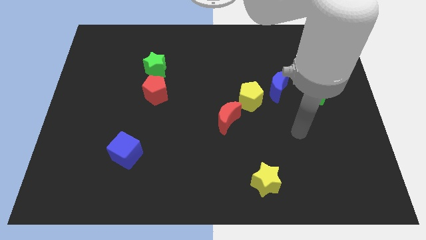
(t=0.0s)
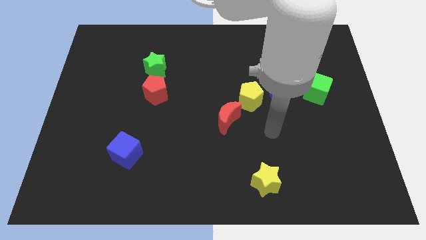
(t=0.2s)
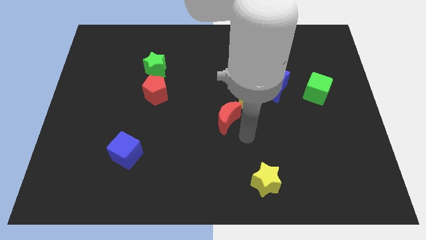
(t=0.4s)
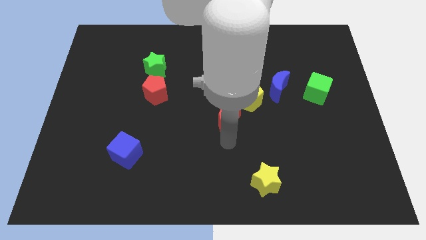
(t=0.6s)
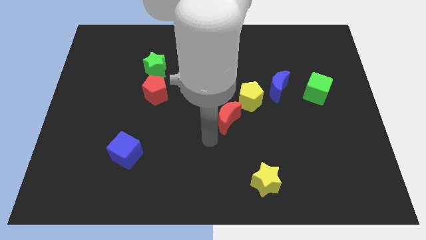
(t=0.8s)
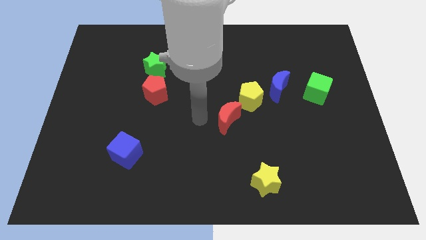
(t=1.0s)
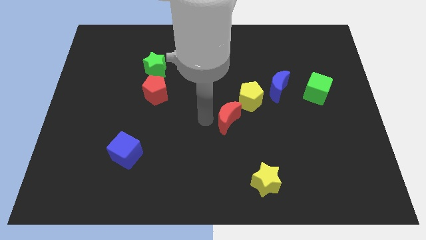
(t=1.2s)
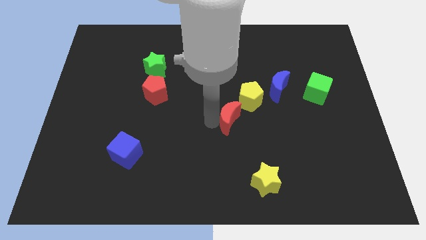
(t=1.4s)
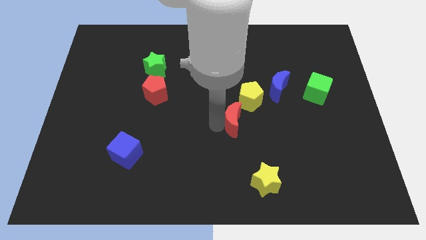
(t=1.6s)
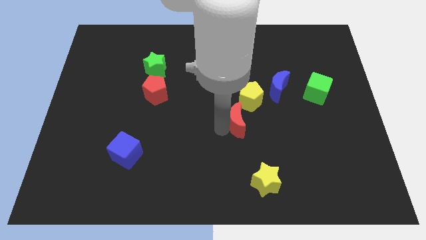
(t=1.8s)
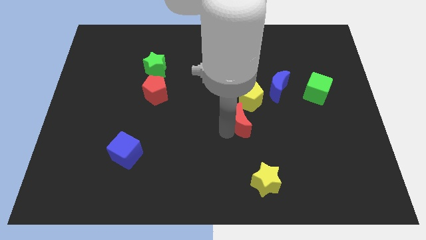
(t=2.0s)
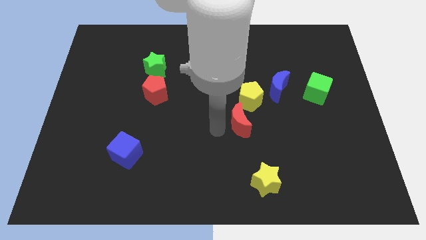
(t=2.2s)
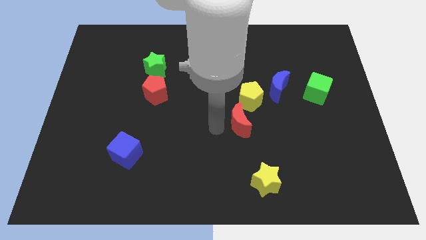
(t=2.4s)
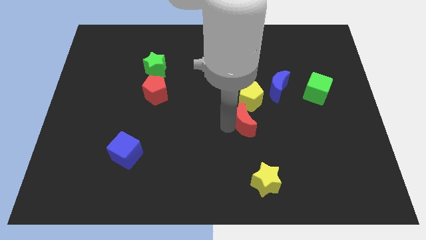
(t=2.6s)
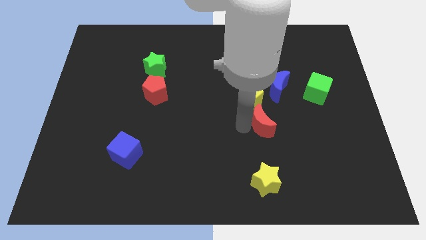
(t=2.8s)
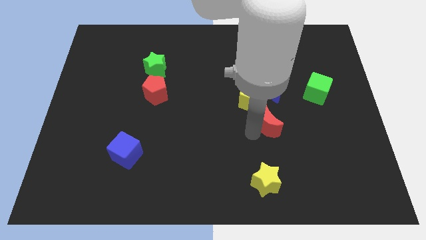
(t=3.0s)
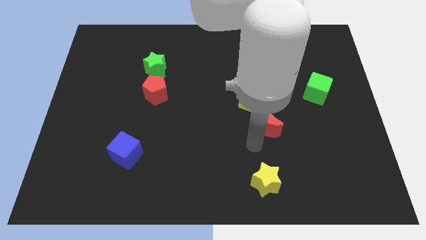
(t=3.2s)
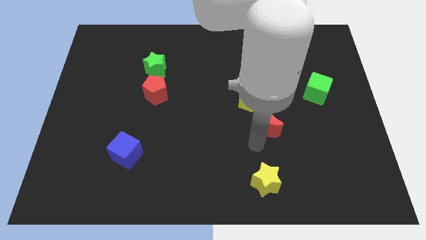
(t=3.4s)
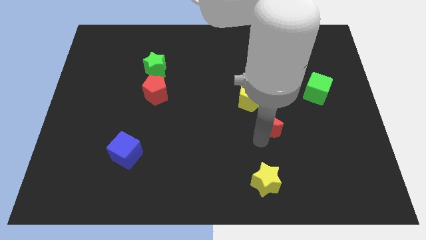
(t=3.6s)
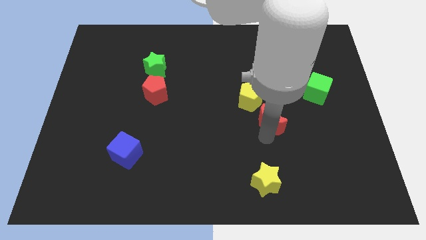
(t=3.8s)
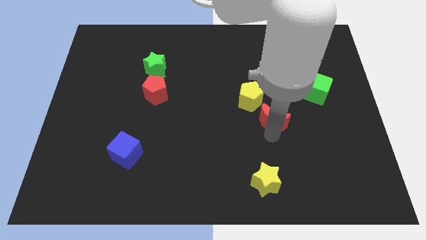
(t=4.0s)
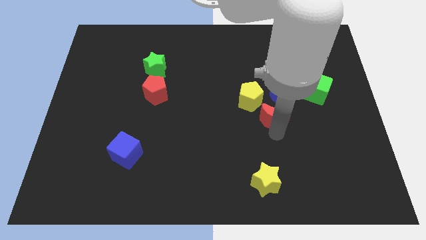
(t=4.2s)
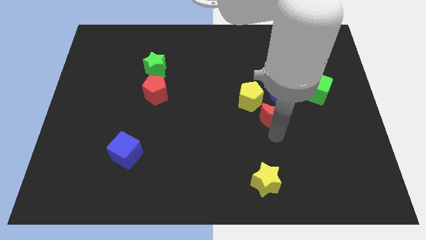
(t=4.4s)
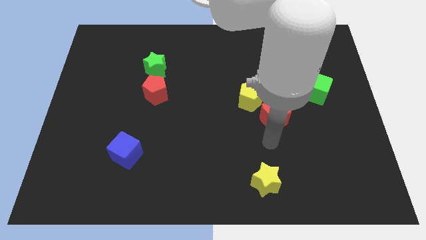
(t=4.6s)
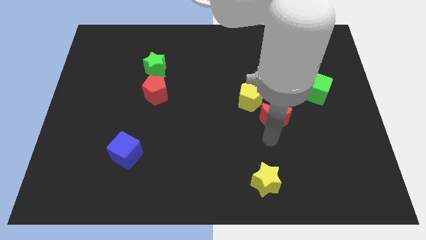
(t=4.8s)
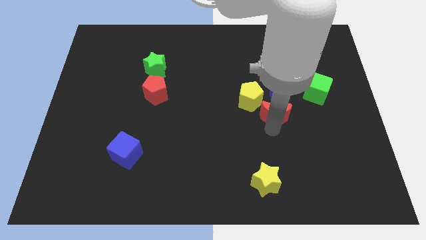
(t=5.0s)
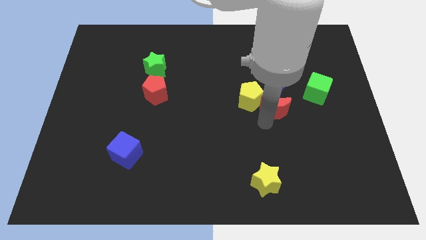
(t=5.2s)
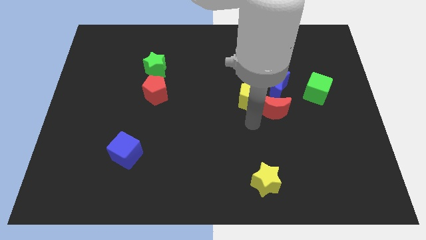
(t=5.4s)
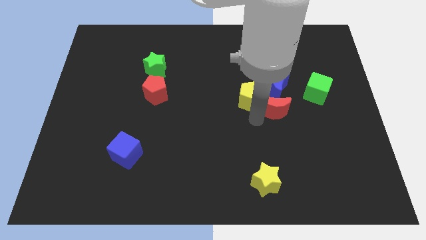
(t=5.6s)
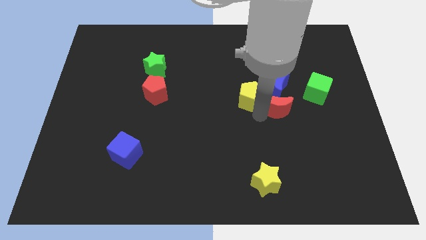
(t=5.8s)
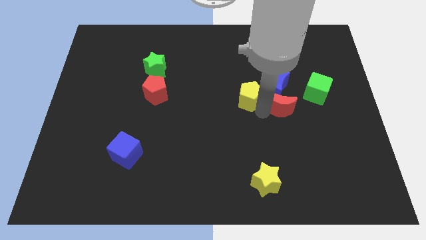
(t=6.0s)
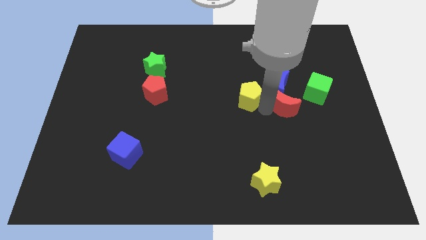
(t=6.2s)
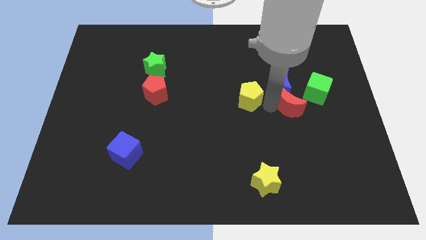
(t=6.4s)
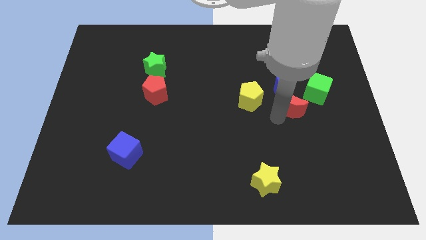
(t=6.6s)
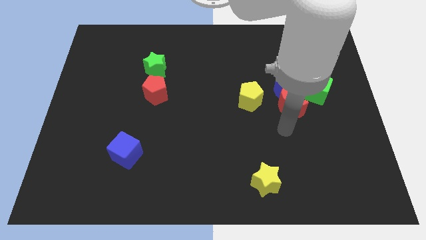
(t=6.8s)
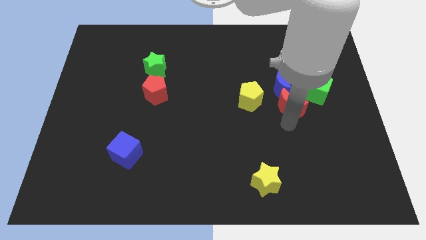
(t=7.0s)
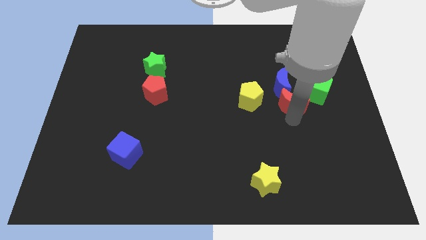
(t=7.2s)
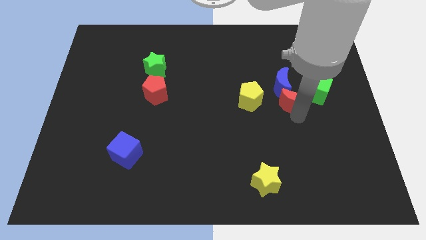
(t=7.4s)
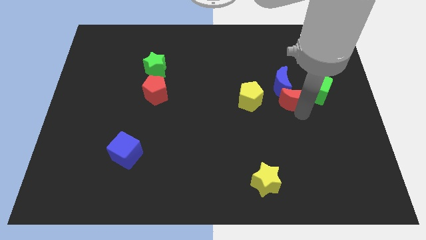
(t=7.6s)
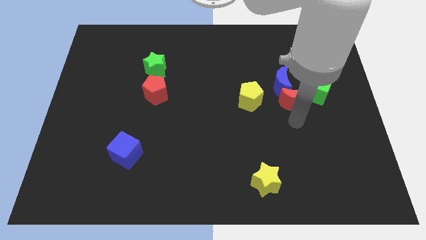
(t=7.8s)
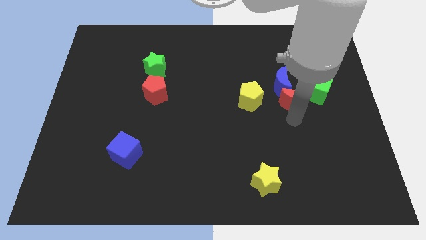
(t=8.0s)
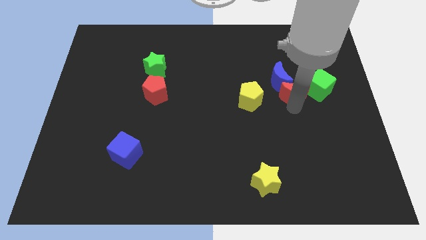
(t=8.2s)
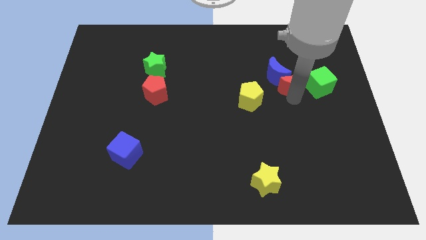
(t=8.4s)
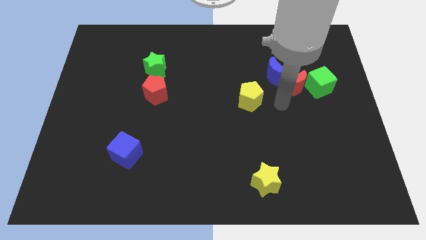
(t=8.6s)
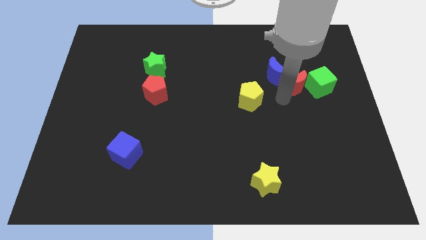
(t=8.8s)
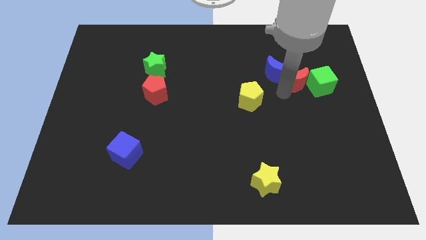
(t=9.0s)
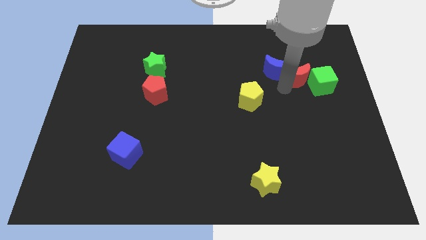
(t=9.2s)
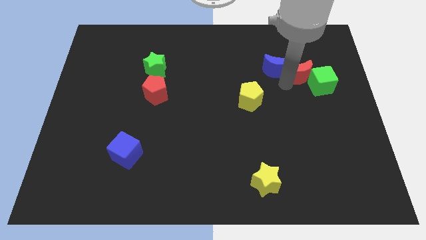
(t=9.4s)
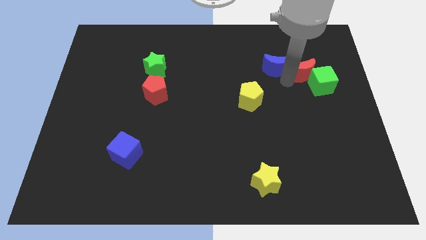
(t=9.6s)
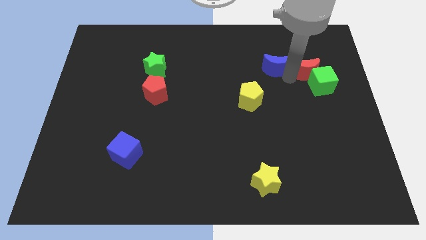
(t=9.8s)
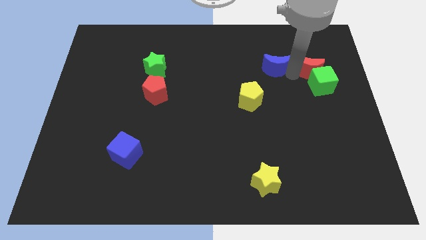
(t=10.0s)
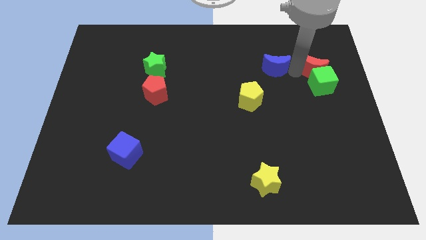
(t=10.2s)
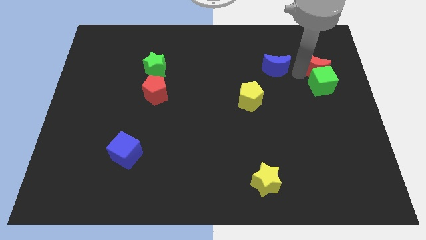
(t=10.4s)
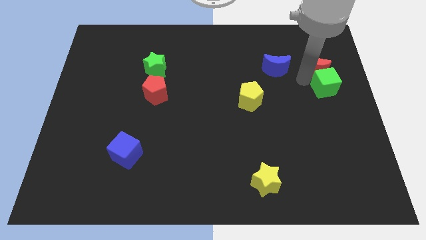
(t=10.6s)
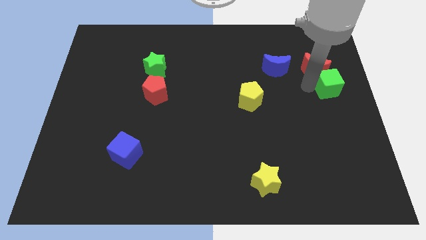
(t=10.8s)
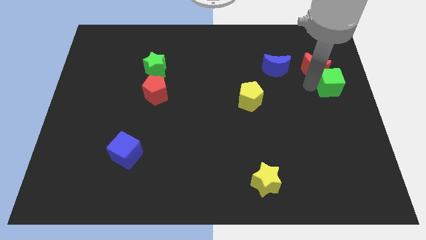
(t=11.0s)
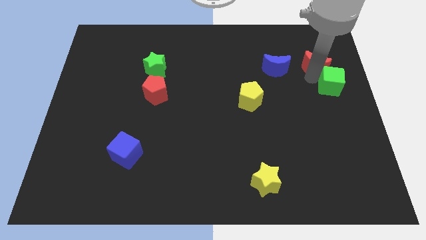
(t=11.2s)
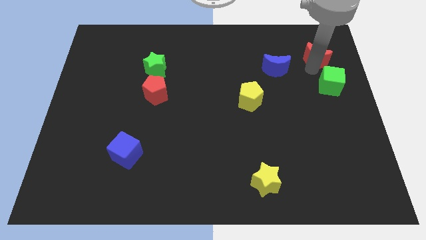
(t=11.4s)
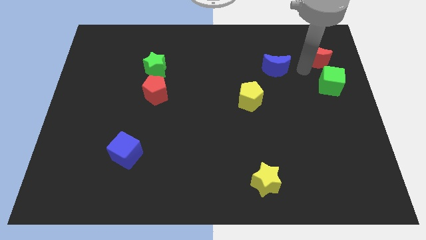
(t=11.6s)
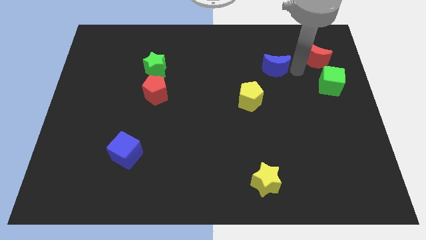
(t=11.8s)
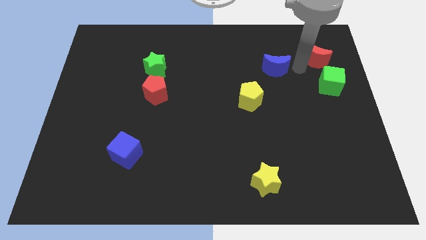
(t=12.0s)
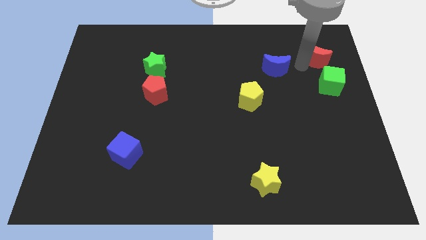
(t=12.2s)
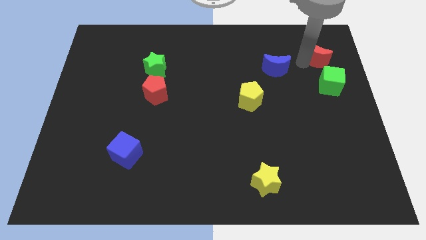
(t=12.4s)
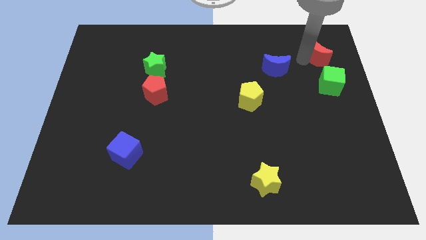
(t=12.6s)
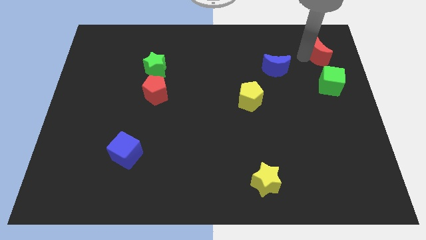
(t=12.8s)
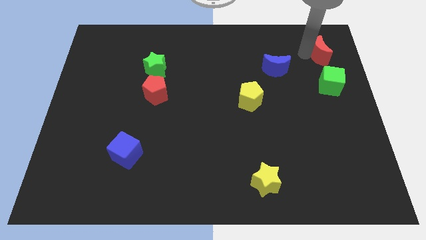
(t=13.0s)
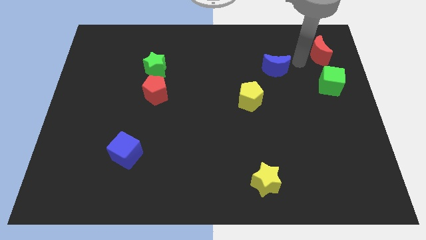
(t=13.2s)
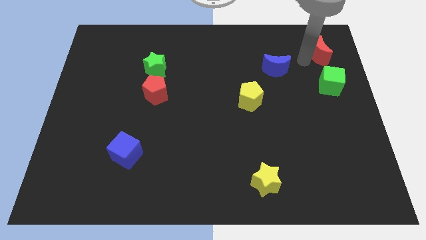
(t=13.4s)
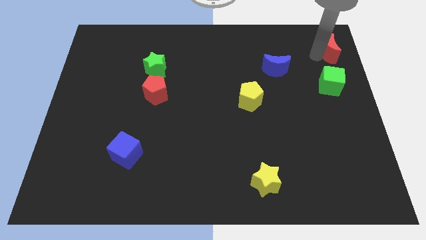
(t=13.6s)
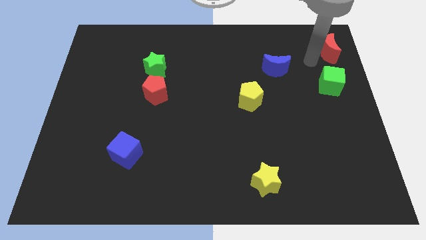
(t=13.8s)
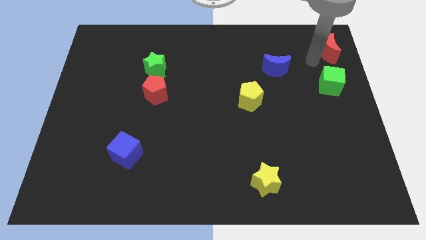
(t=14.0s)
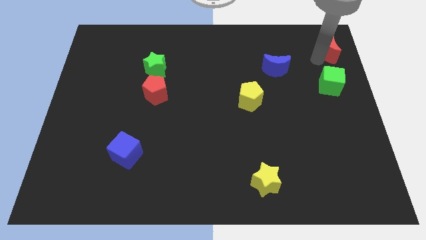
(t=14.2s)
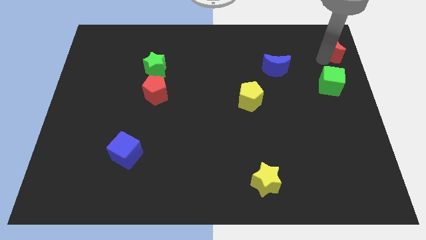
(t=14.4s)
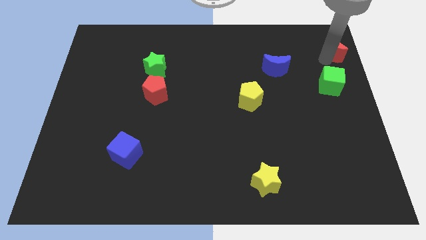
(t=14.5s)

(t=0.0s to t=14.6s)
slide the red moon to the upper right corner
